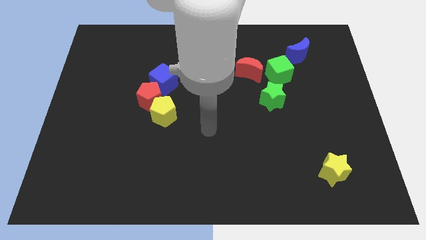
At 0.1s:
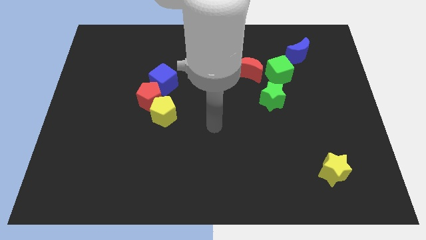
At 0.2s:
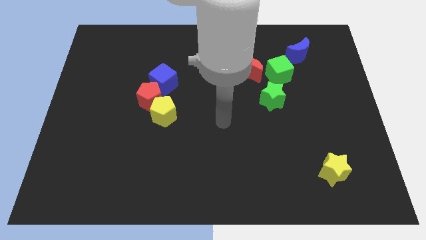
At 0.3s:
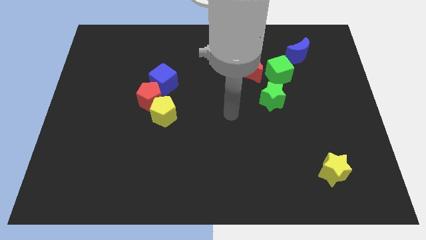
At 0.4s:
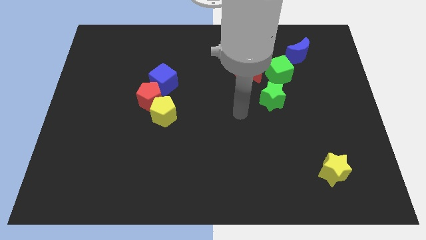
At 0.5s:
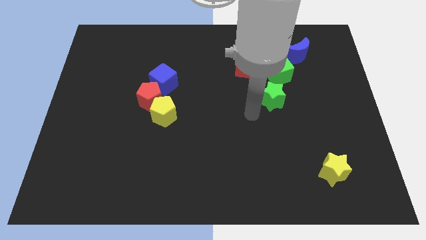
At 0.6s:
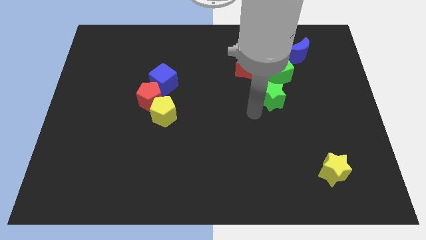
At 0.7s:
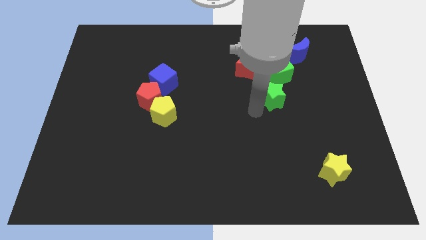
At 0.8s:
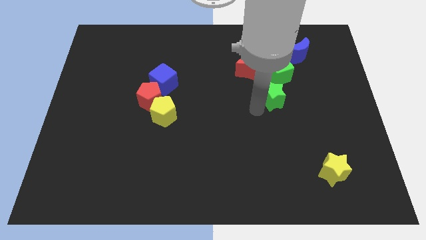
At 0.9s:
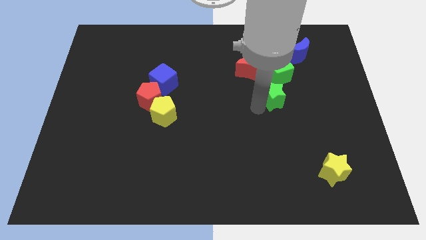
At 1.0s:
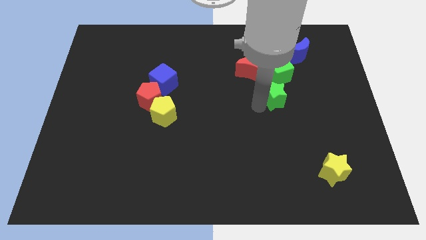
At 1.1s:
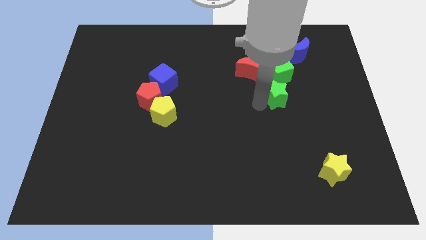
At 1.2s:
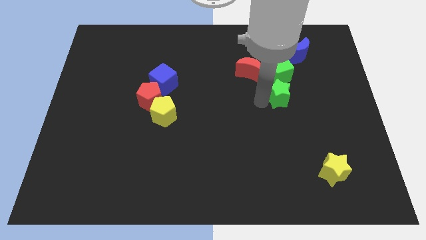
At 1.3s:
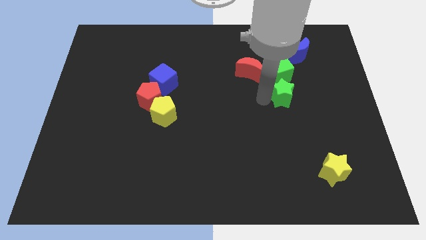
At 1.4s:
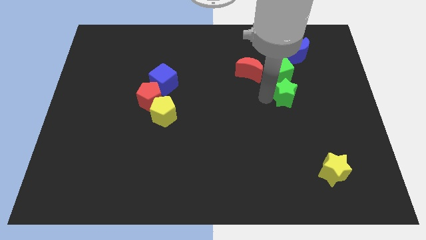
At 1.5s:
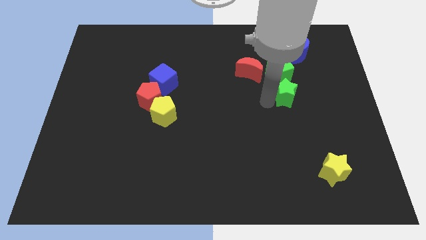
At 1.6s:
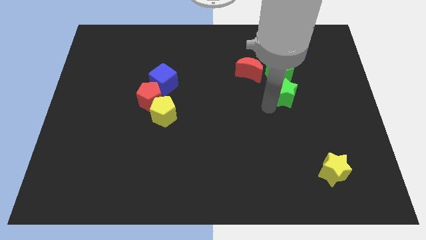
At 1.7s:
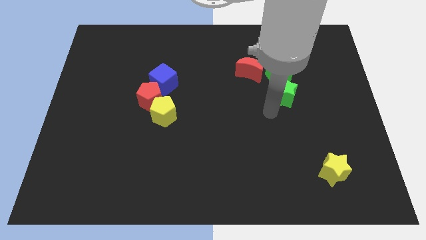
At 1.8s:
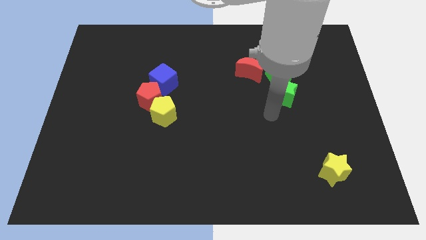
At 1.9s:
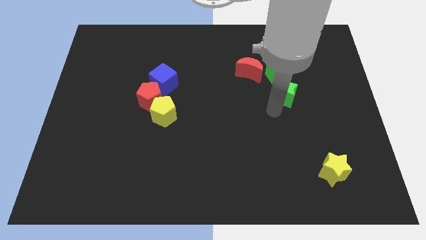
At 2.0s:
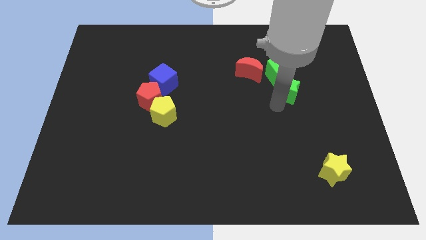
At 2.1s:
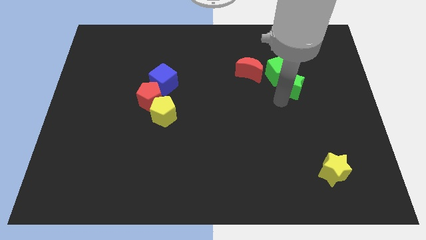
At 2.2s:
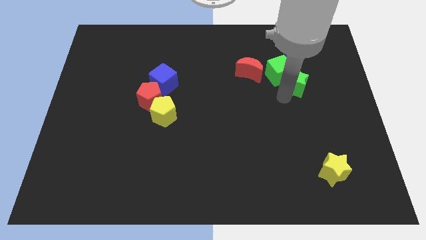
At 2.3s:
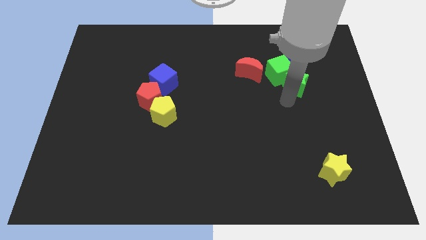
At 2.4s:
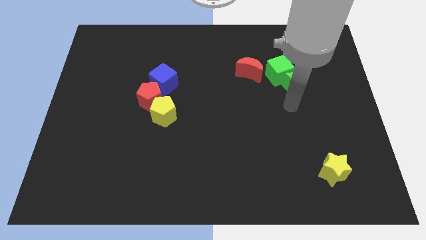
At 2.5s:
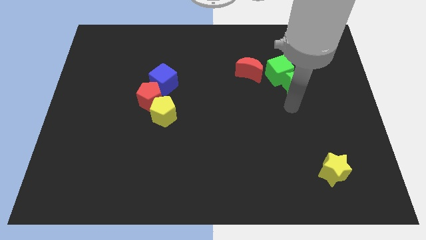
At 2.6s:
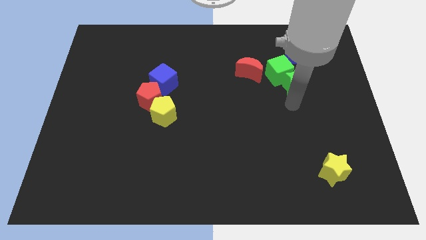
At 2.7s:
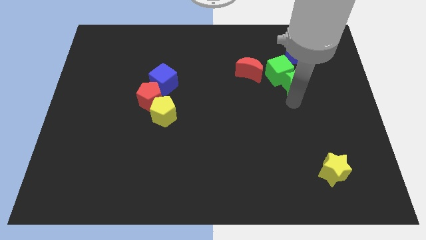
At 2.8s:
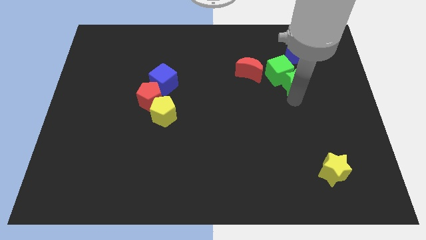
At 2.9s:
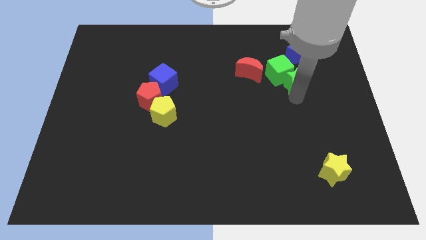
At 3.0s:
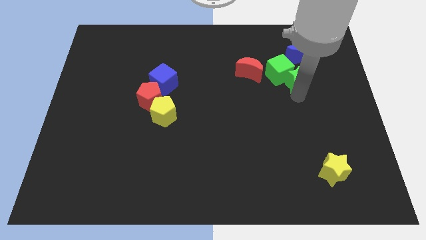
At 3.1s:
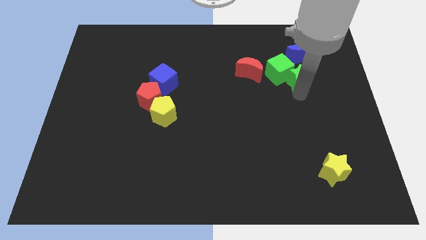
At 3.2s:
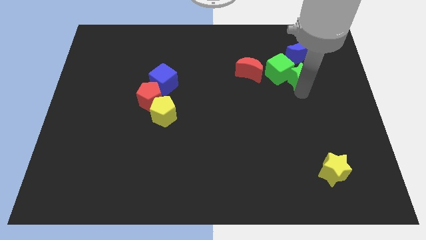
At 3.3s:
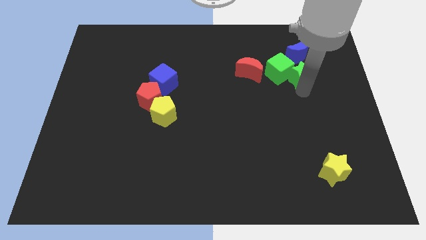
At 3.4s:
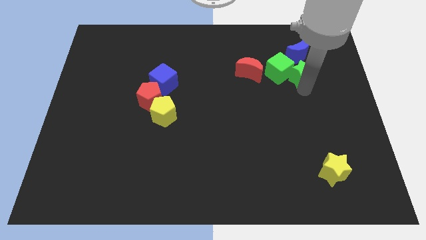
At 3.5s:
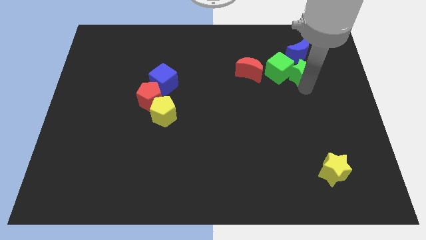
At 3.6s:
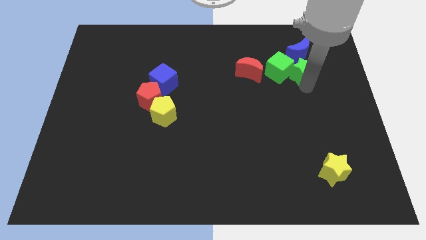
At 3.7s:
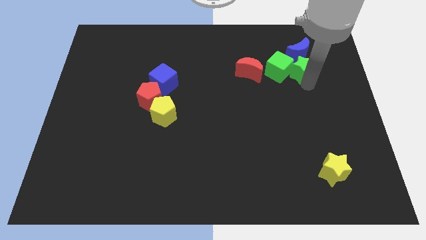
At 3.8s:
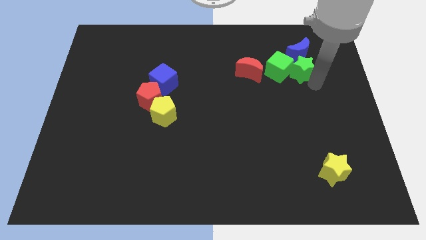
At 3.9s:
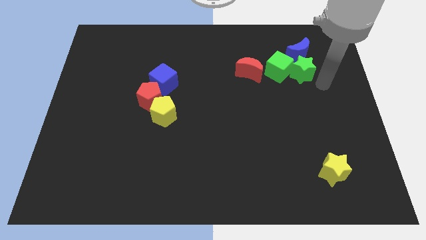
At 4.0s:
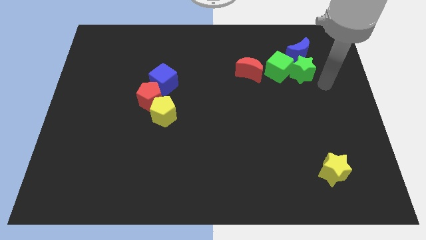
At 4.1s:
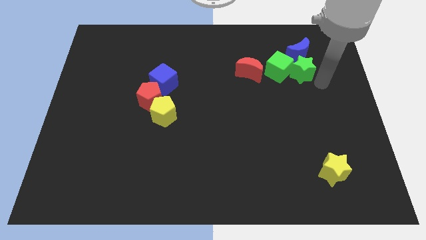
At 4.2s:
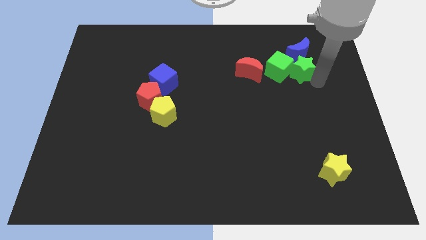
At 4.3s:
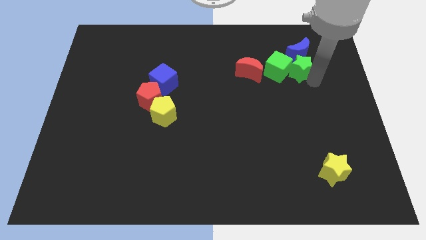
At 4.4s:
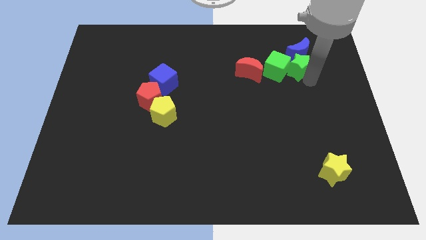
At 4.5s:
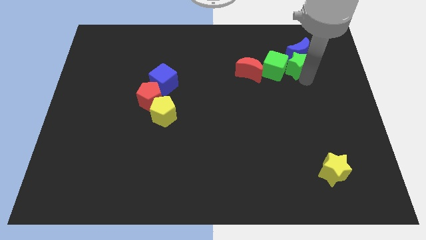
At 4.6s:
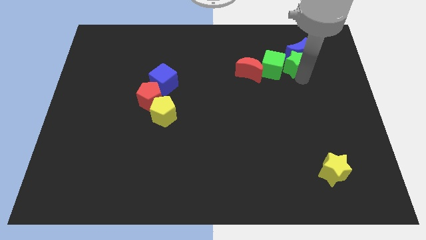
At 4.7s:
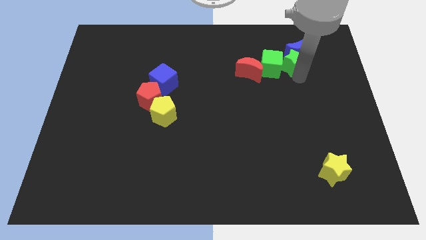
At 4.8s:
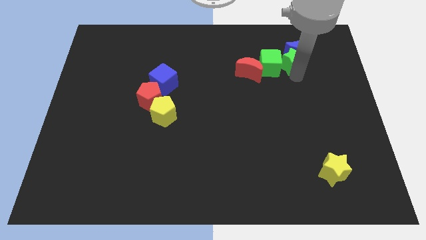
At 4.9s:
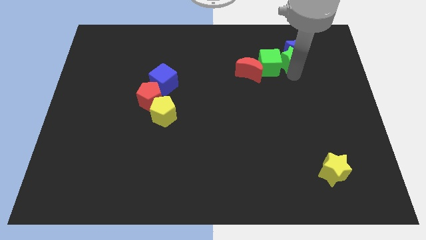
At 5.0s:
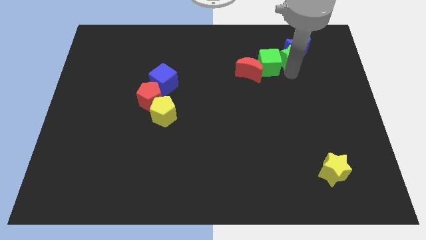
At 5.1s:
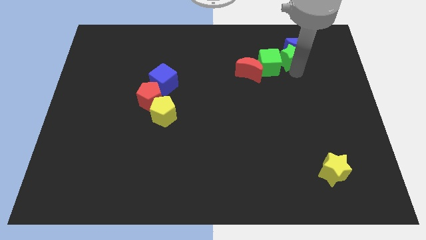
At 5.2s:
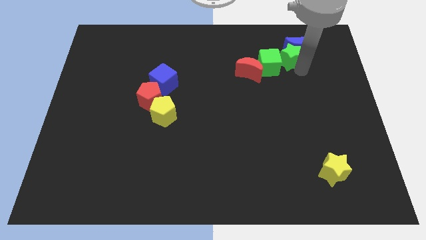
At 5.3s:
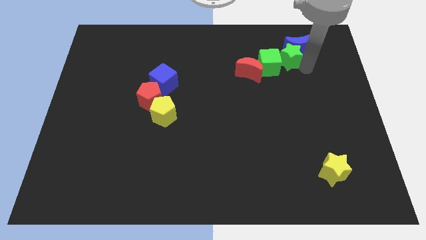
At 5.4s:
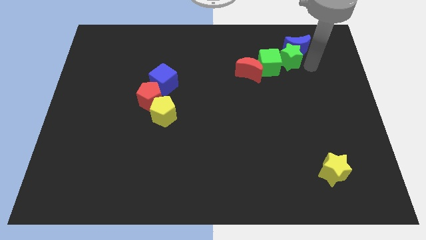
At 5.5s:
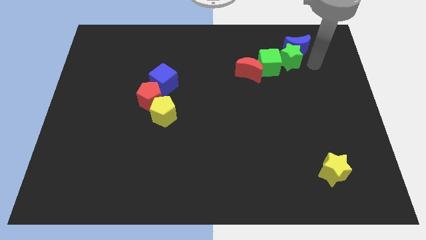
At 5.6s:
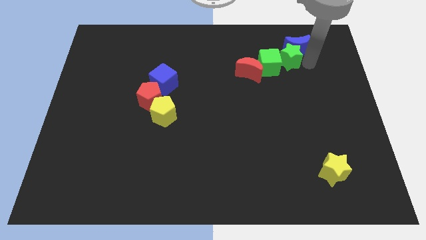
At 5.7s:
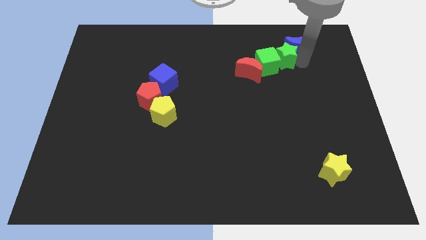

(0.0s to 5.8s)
move the green star to the top right of the red moon

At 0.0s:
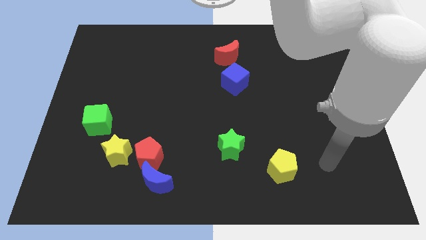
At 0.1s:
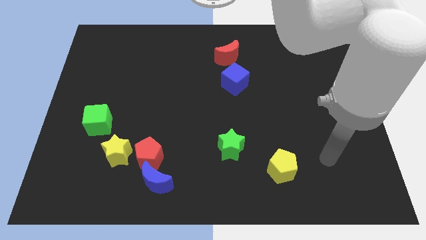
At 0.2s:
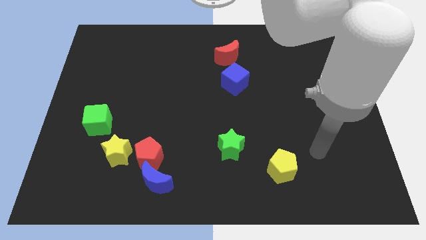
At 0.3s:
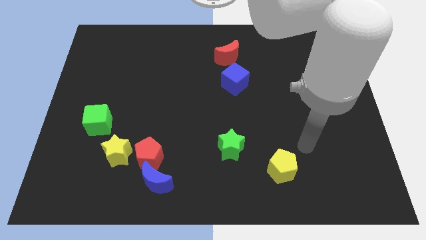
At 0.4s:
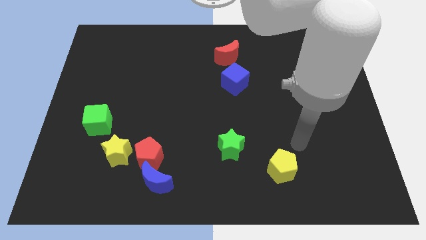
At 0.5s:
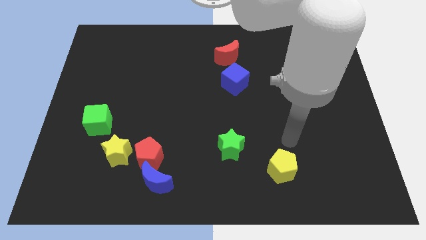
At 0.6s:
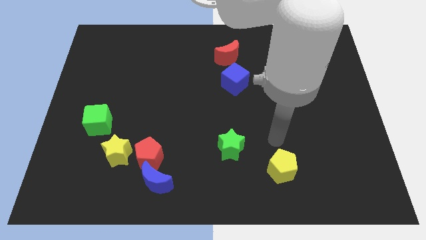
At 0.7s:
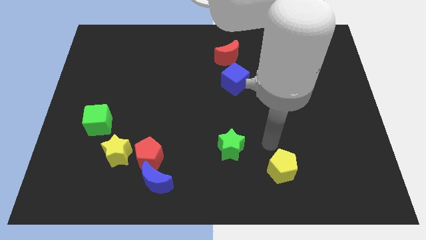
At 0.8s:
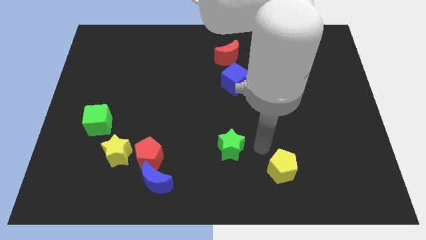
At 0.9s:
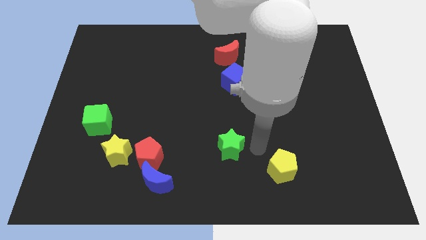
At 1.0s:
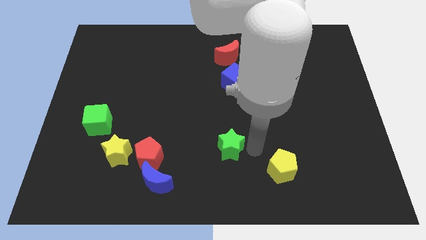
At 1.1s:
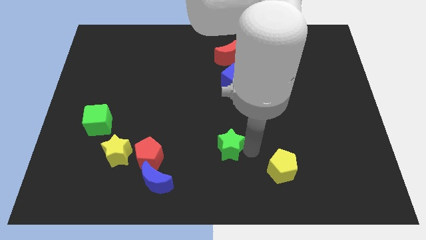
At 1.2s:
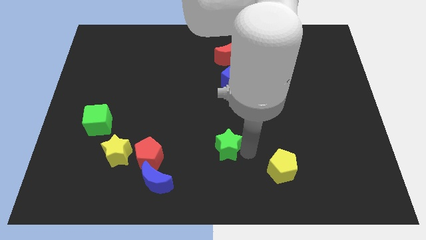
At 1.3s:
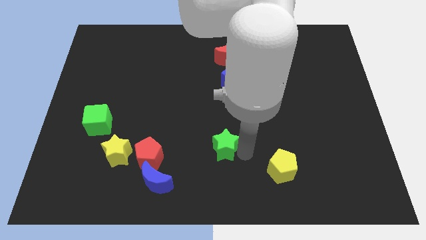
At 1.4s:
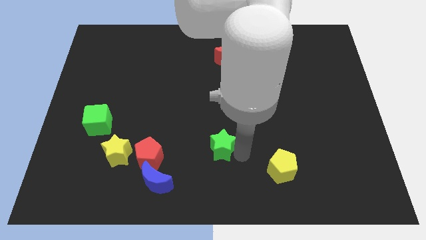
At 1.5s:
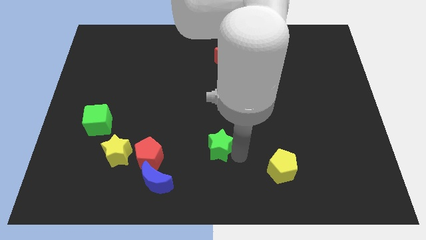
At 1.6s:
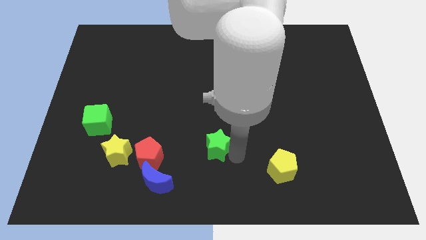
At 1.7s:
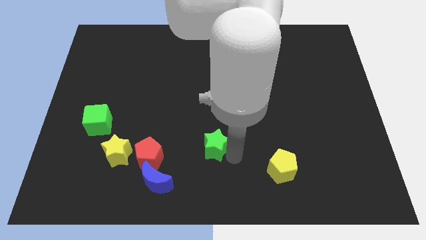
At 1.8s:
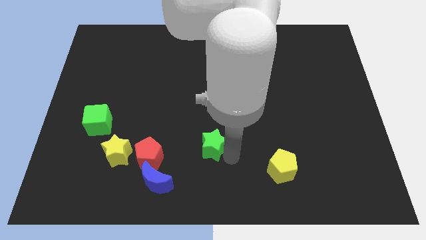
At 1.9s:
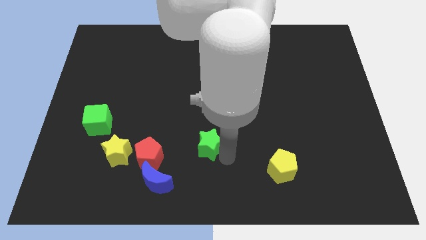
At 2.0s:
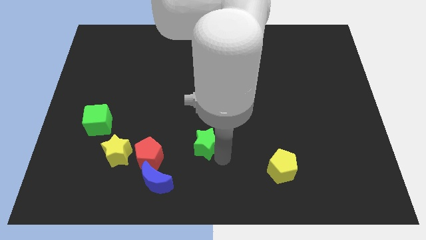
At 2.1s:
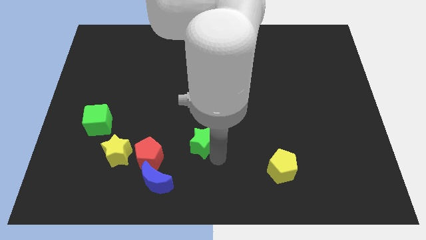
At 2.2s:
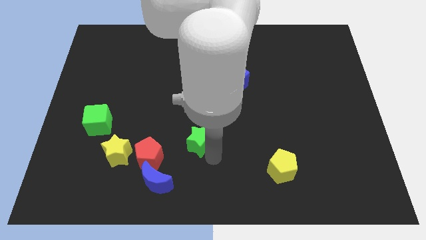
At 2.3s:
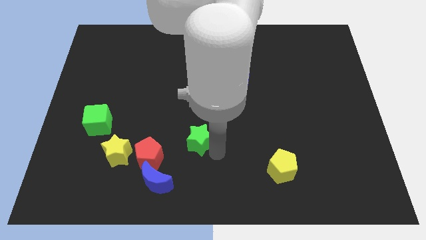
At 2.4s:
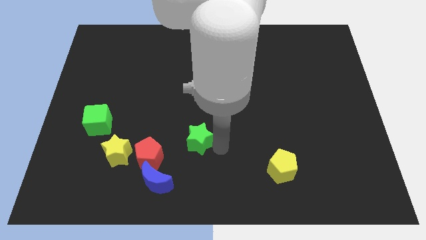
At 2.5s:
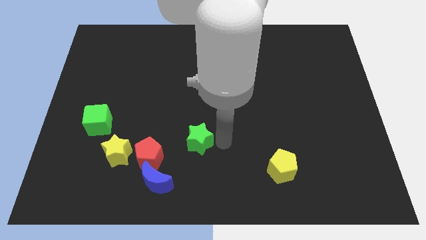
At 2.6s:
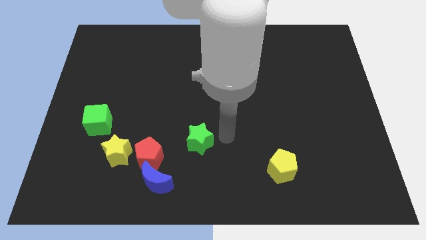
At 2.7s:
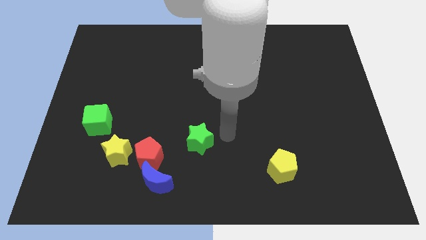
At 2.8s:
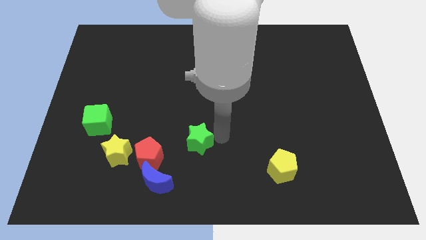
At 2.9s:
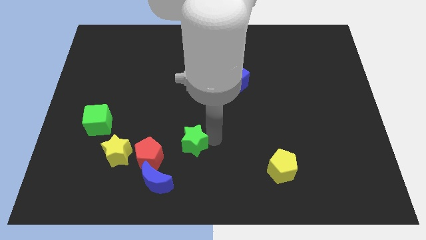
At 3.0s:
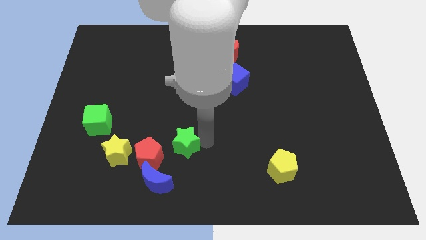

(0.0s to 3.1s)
put the green star to the right of the yellow star
